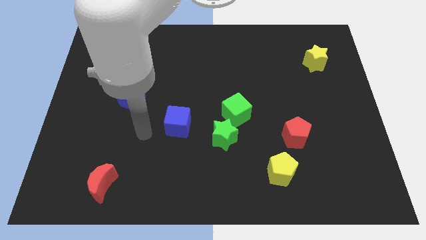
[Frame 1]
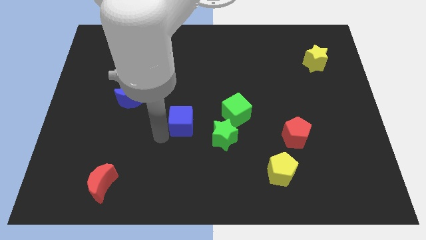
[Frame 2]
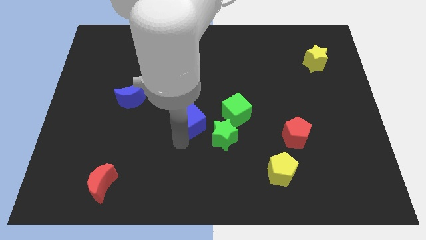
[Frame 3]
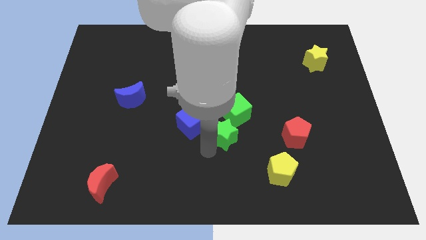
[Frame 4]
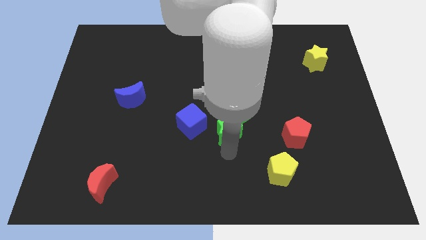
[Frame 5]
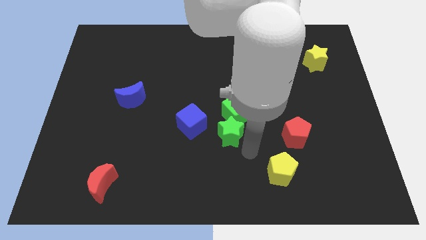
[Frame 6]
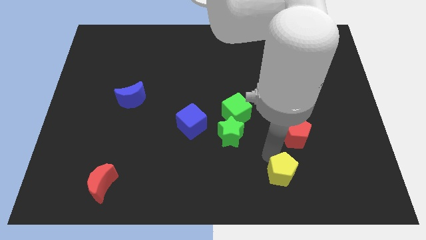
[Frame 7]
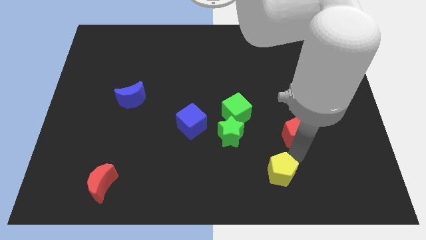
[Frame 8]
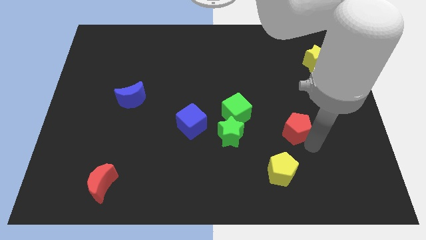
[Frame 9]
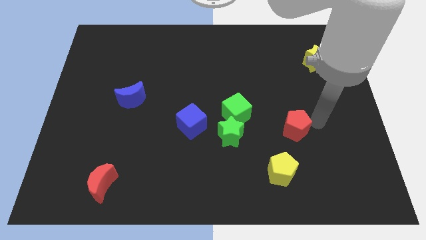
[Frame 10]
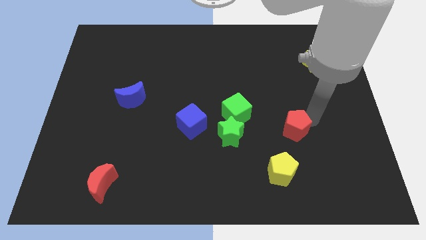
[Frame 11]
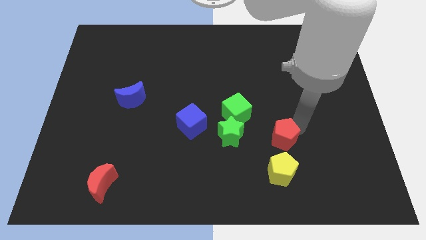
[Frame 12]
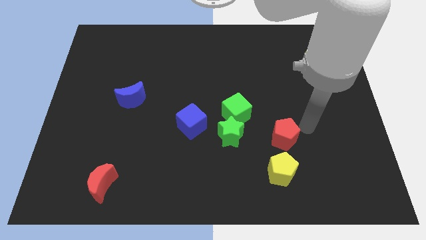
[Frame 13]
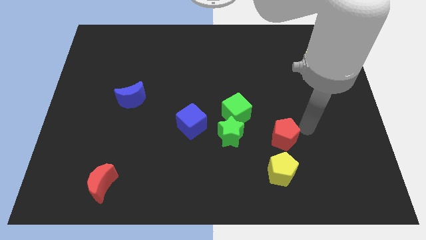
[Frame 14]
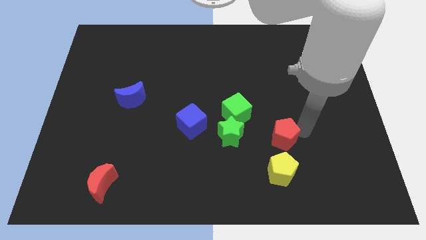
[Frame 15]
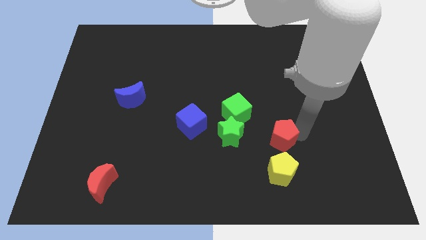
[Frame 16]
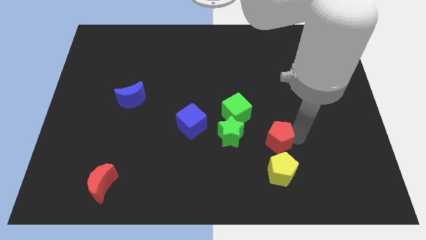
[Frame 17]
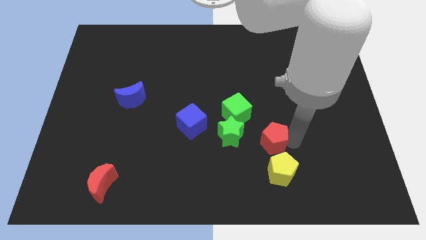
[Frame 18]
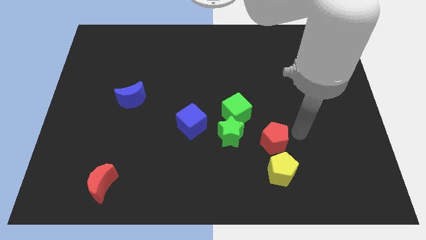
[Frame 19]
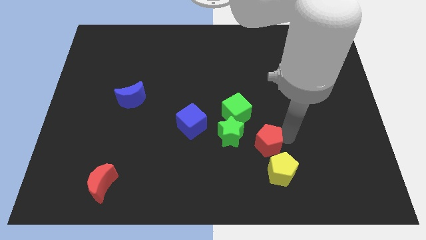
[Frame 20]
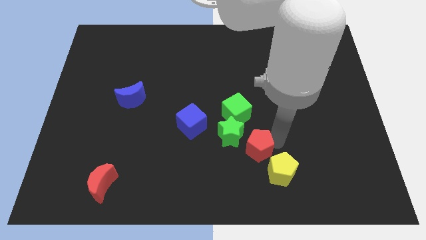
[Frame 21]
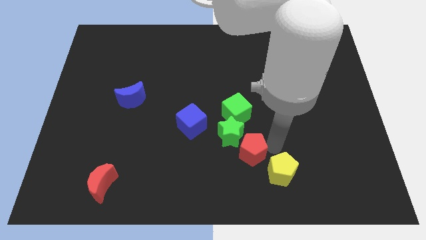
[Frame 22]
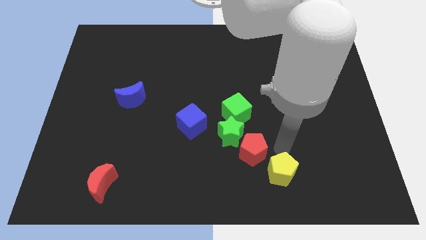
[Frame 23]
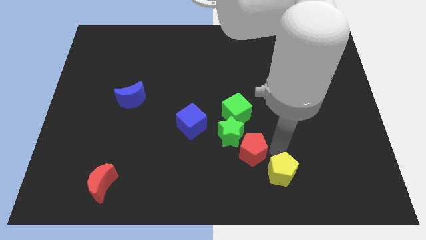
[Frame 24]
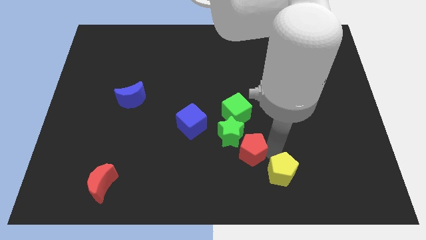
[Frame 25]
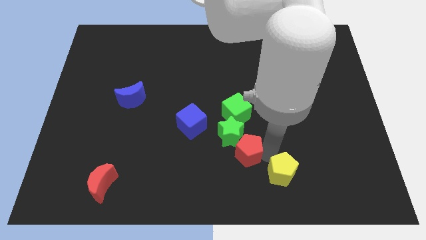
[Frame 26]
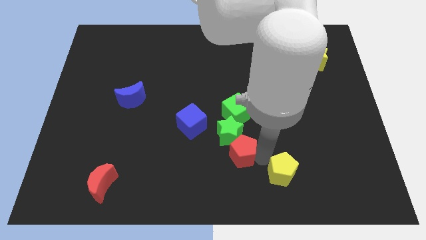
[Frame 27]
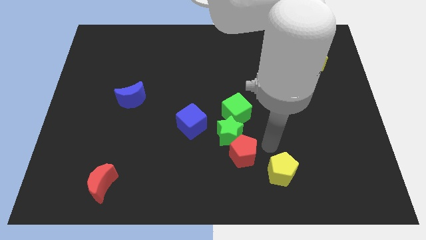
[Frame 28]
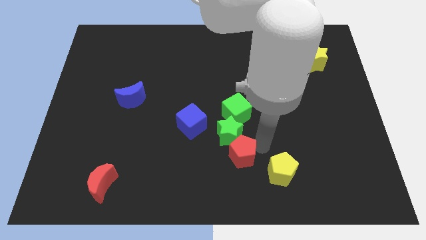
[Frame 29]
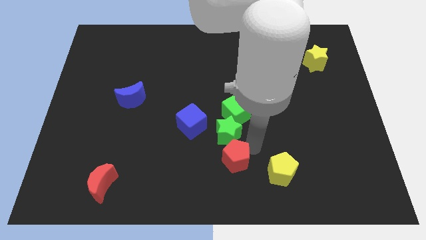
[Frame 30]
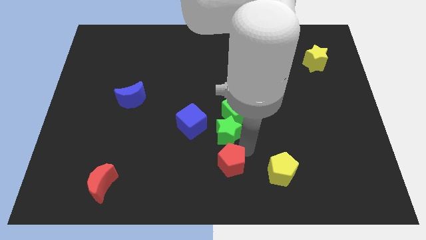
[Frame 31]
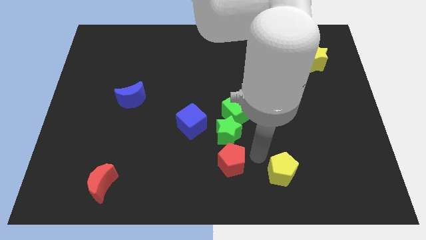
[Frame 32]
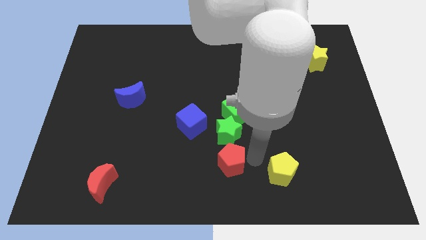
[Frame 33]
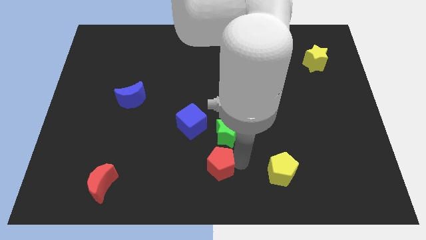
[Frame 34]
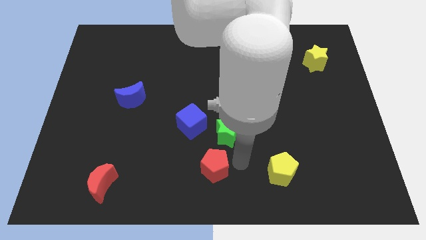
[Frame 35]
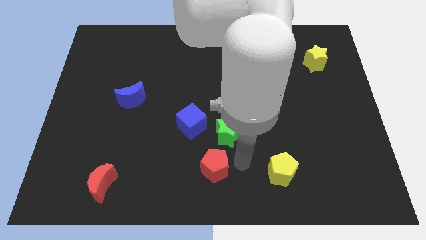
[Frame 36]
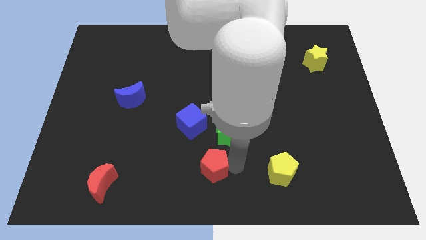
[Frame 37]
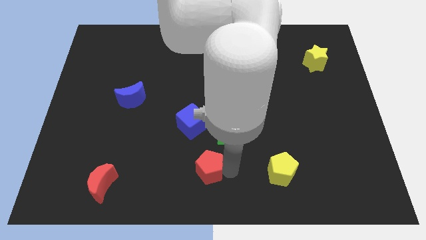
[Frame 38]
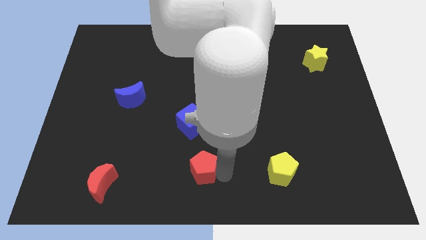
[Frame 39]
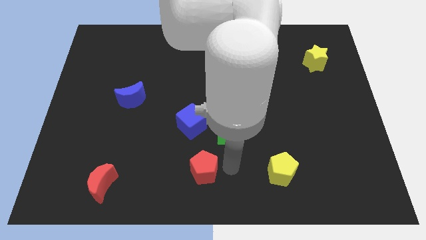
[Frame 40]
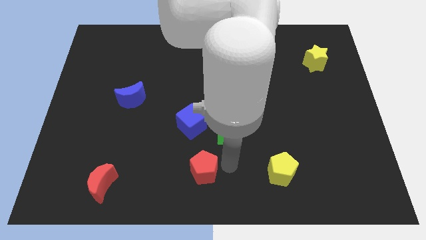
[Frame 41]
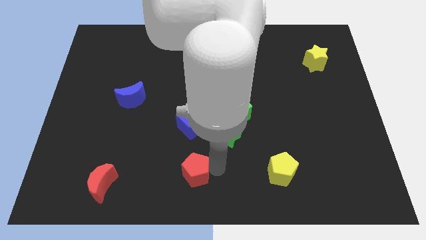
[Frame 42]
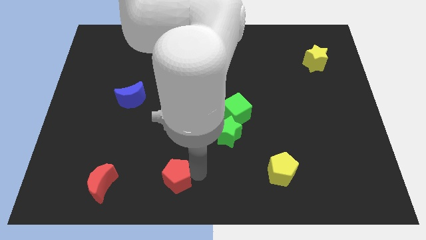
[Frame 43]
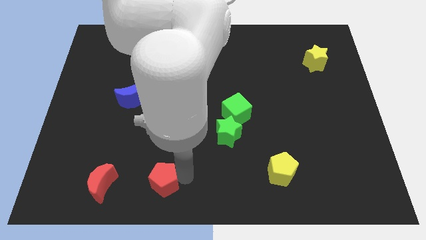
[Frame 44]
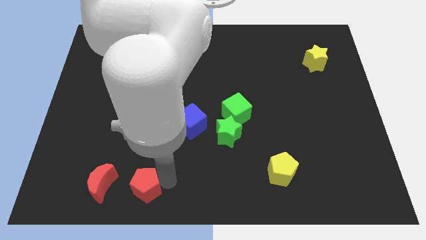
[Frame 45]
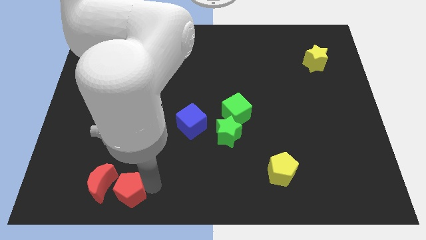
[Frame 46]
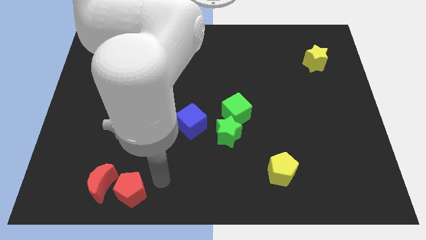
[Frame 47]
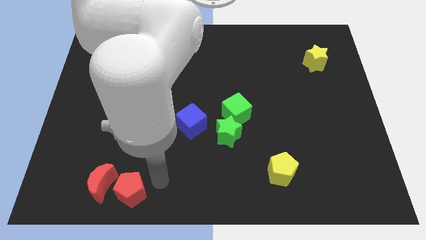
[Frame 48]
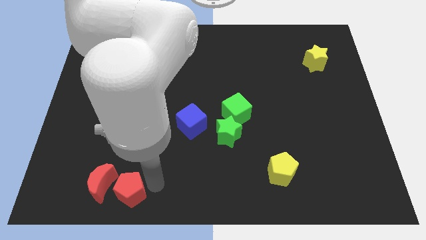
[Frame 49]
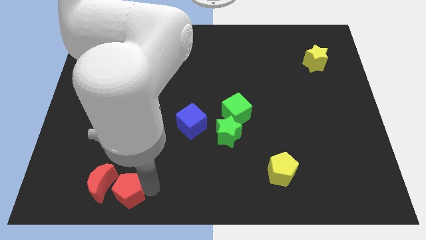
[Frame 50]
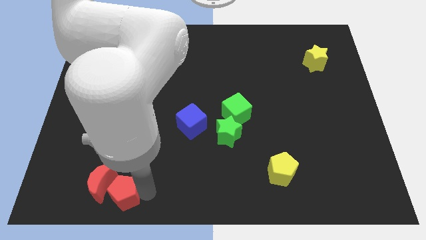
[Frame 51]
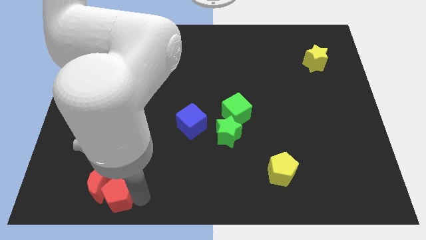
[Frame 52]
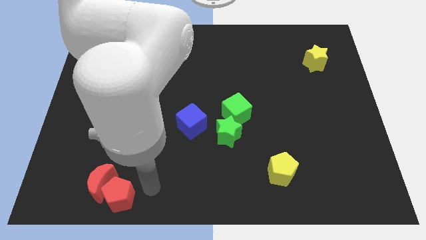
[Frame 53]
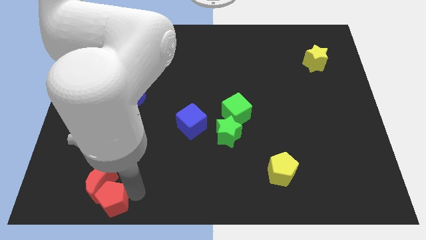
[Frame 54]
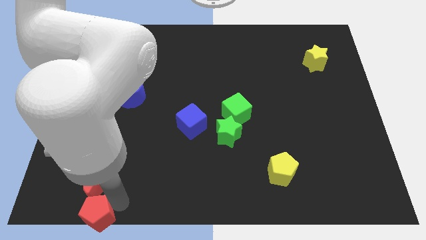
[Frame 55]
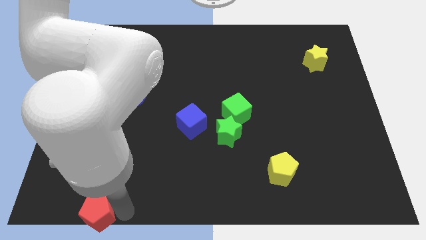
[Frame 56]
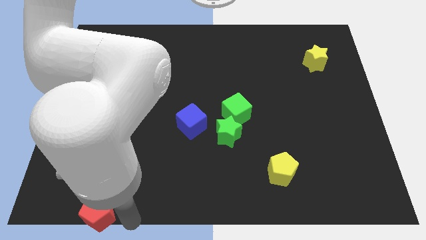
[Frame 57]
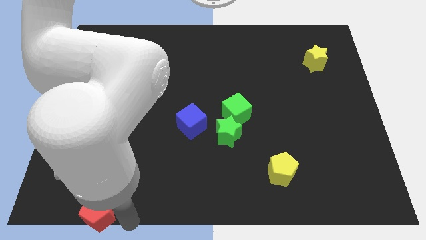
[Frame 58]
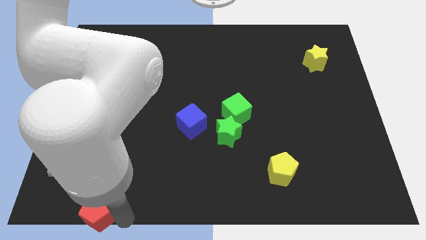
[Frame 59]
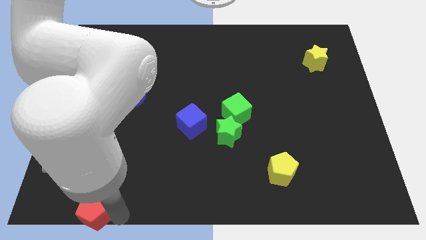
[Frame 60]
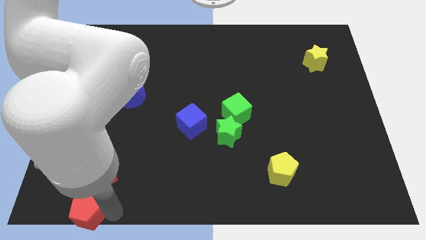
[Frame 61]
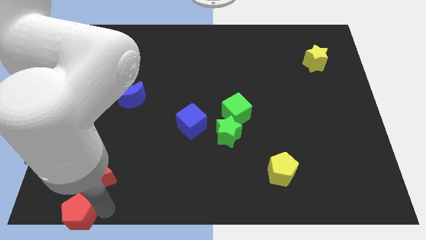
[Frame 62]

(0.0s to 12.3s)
push the red pentagon to the bottom left of the board

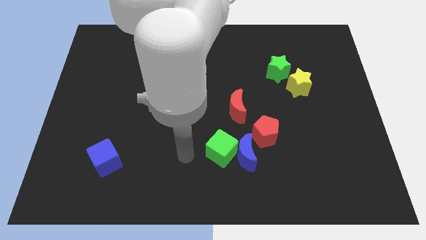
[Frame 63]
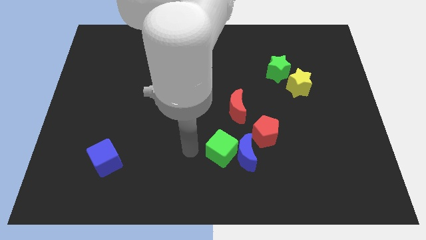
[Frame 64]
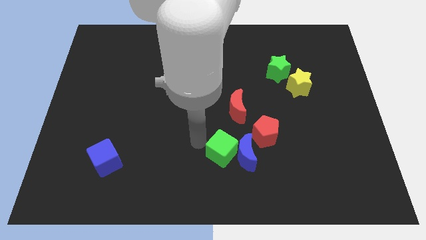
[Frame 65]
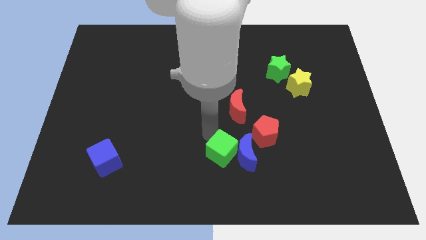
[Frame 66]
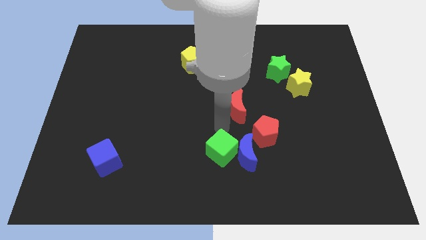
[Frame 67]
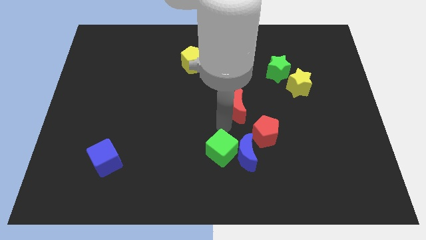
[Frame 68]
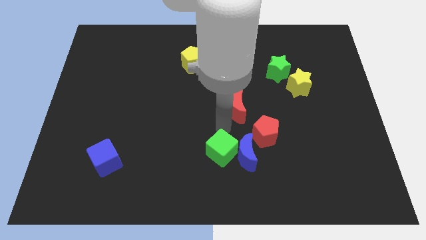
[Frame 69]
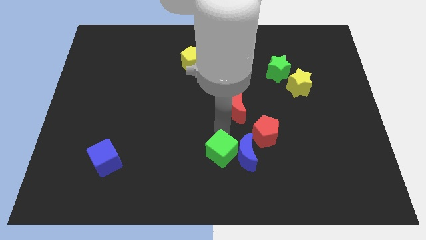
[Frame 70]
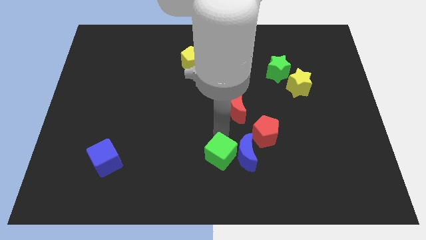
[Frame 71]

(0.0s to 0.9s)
move the green cube to the bottom
